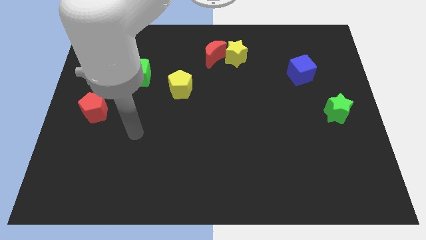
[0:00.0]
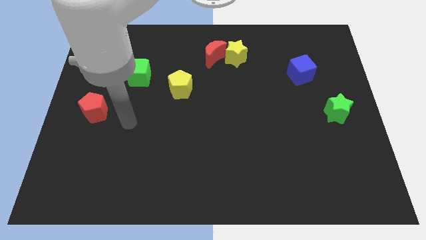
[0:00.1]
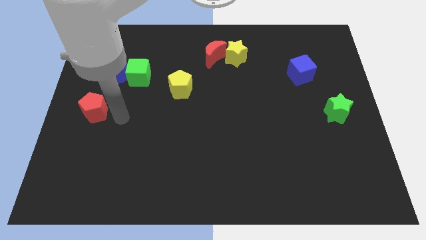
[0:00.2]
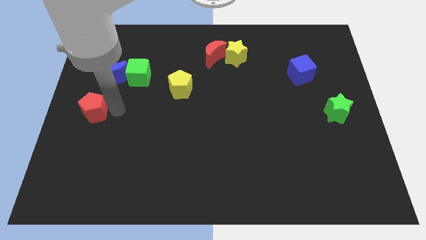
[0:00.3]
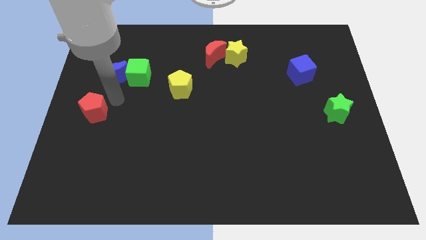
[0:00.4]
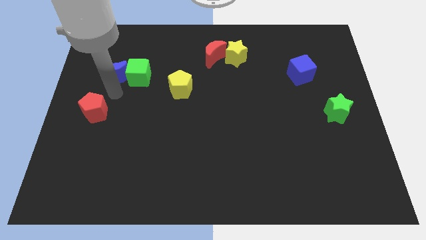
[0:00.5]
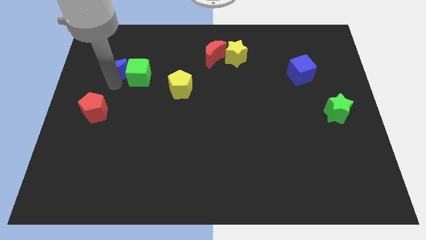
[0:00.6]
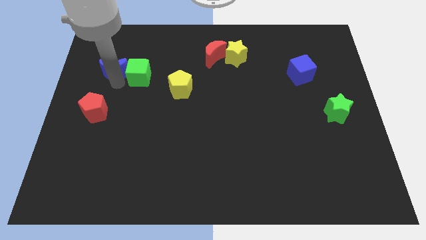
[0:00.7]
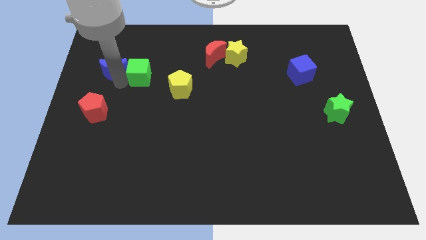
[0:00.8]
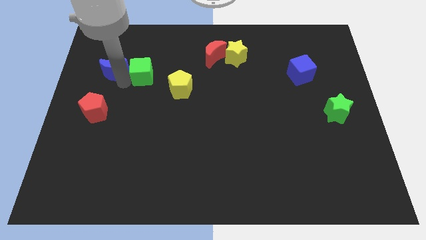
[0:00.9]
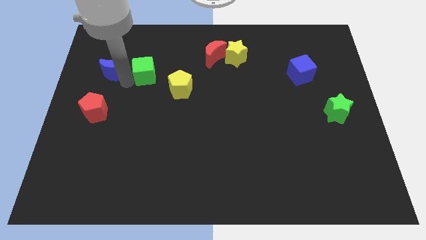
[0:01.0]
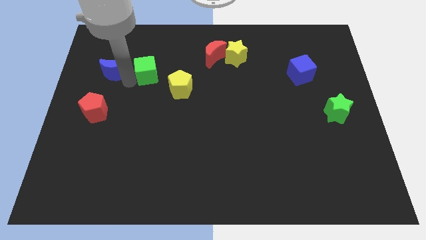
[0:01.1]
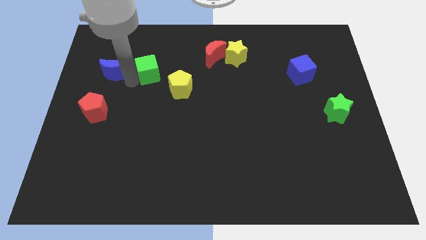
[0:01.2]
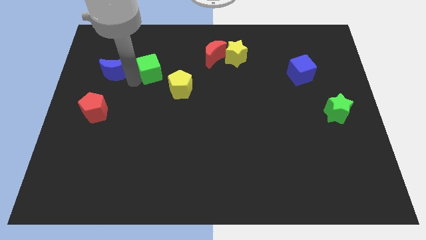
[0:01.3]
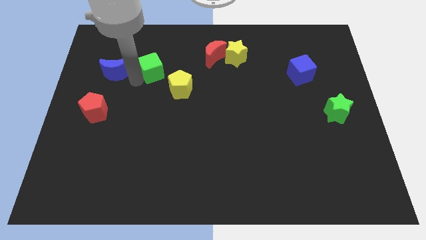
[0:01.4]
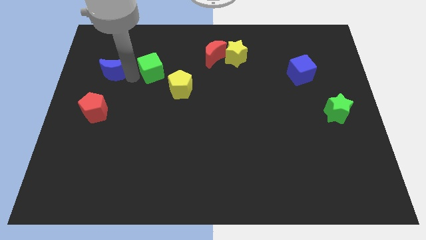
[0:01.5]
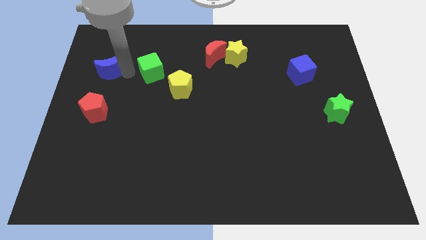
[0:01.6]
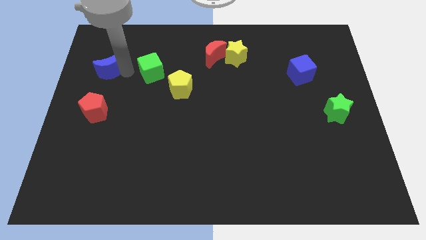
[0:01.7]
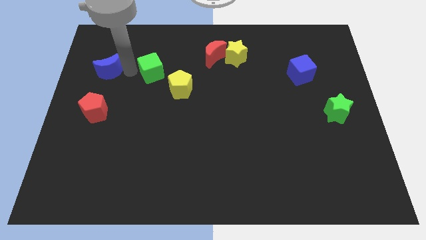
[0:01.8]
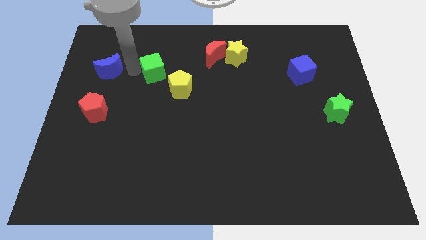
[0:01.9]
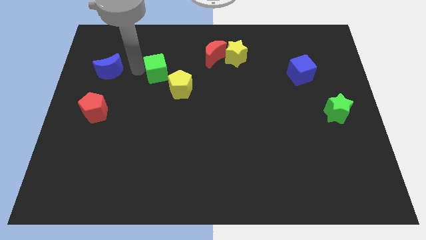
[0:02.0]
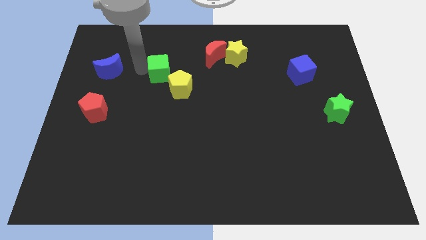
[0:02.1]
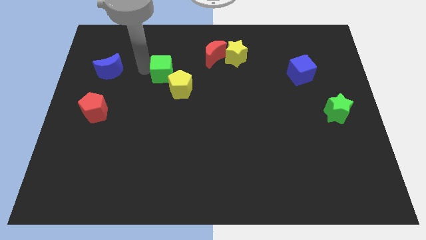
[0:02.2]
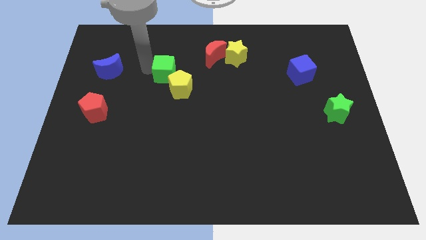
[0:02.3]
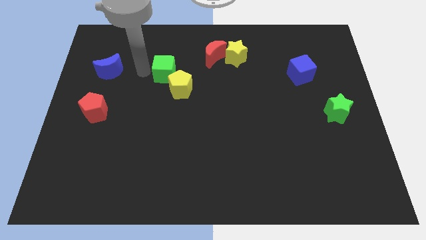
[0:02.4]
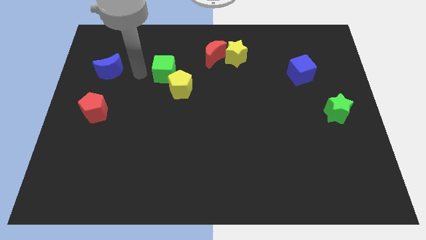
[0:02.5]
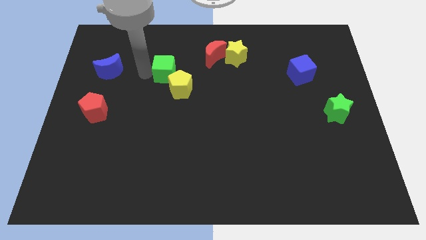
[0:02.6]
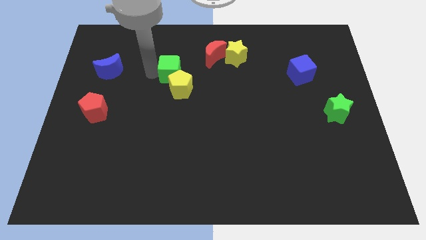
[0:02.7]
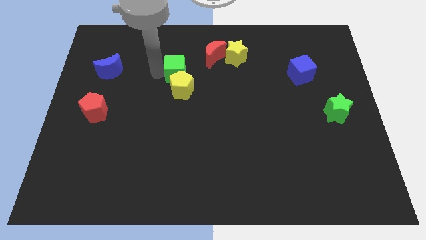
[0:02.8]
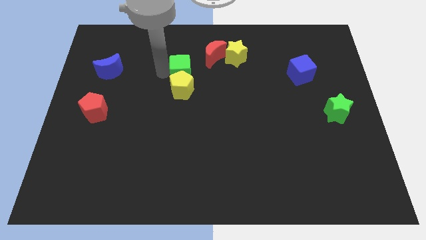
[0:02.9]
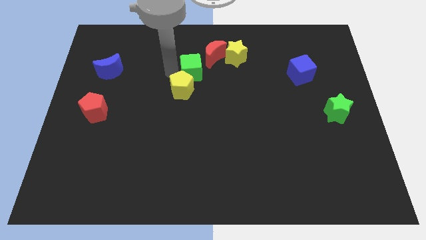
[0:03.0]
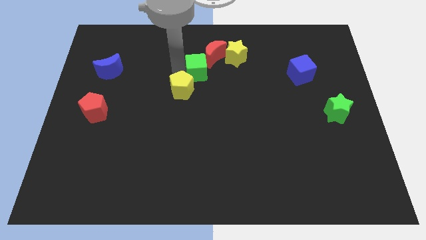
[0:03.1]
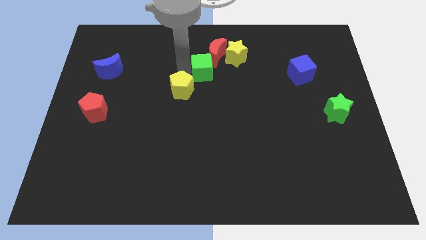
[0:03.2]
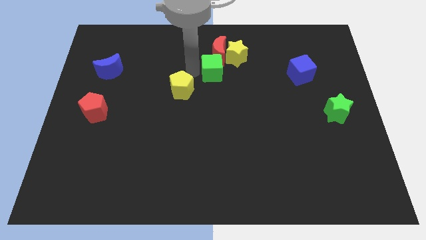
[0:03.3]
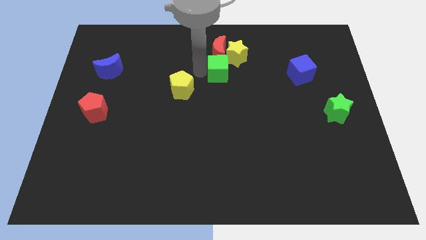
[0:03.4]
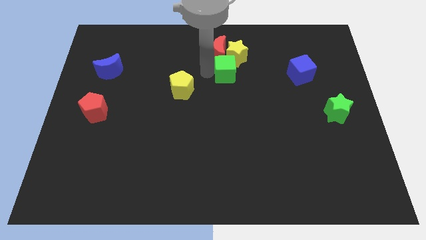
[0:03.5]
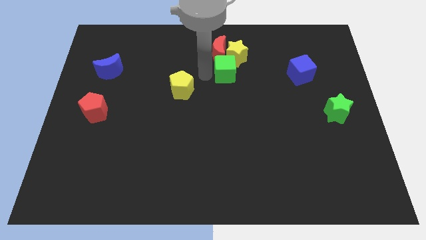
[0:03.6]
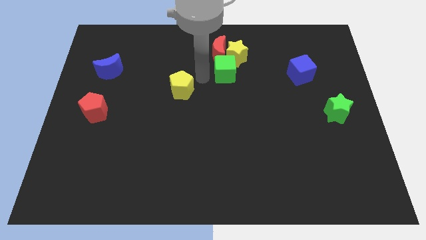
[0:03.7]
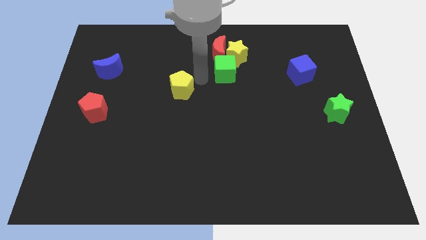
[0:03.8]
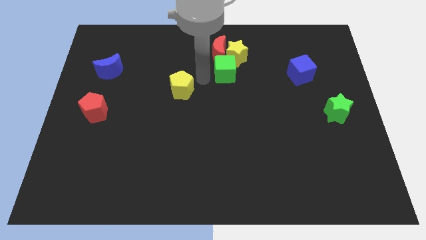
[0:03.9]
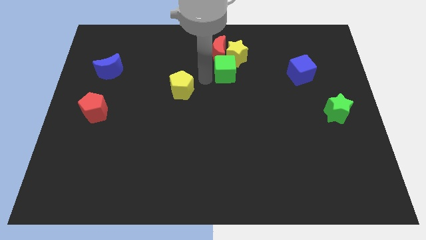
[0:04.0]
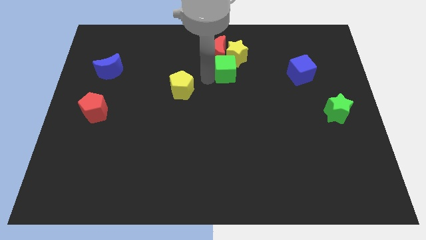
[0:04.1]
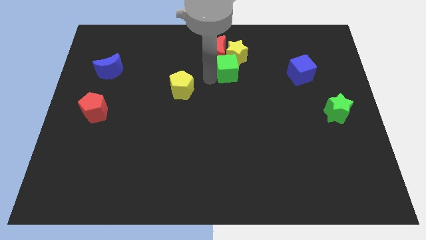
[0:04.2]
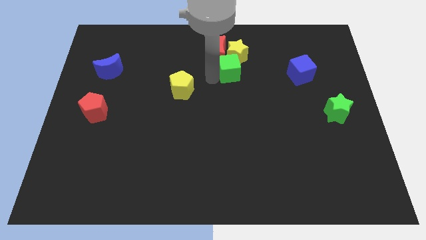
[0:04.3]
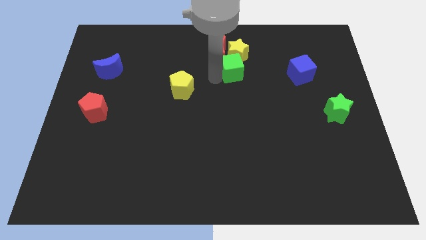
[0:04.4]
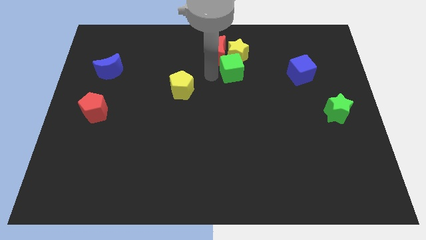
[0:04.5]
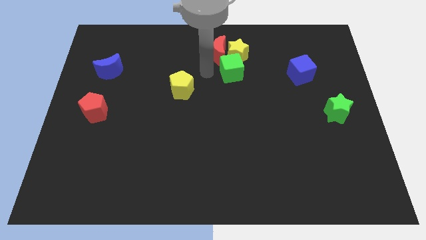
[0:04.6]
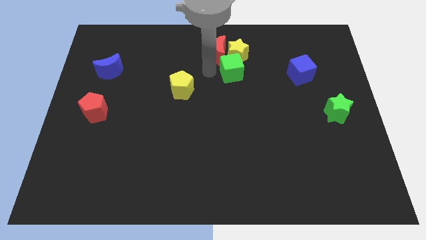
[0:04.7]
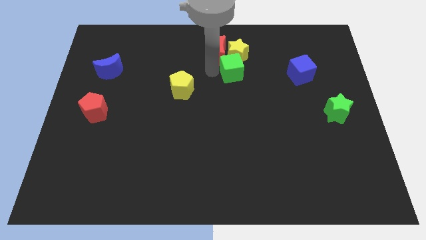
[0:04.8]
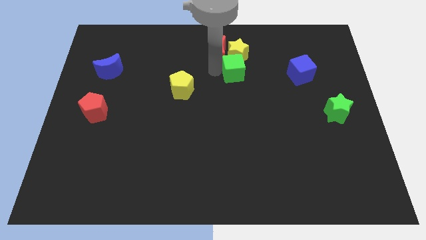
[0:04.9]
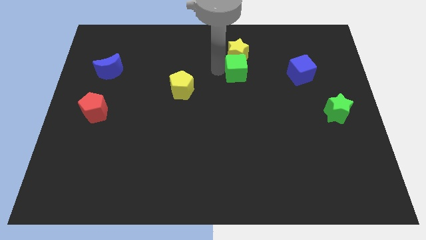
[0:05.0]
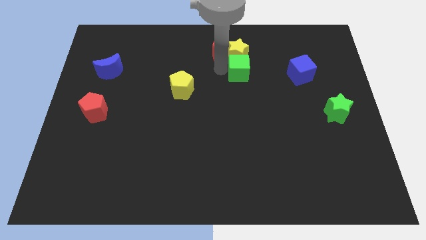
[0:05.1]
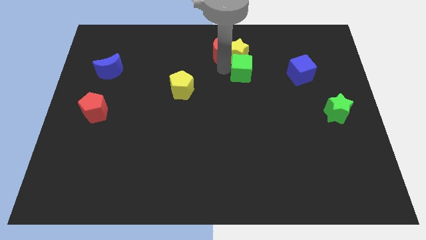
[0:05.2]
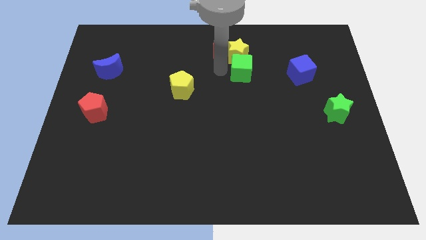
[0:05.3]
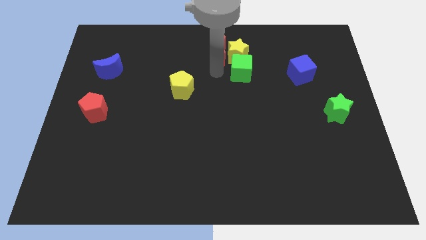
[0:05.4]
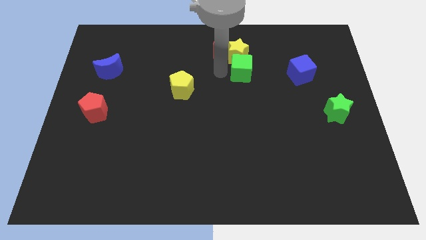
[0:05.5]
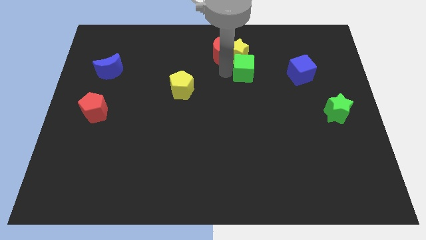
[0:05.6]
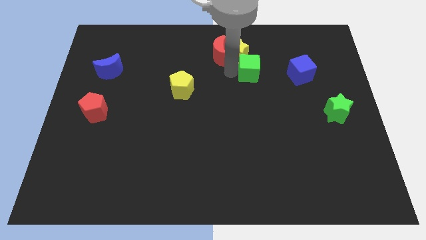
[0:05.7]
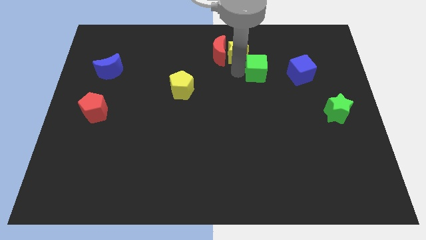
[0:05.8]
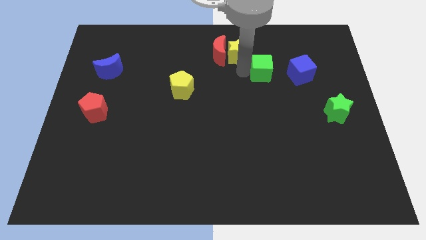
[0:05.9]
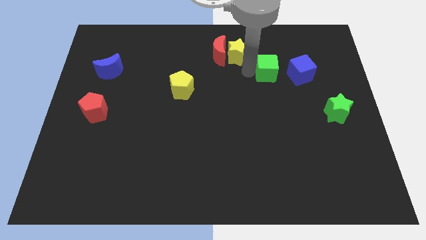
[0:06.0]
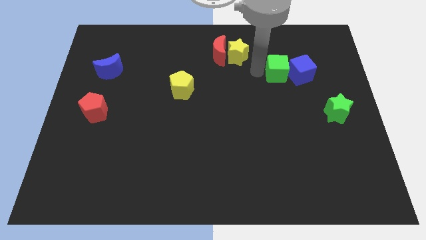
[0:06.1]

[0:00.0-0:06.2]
move the green cube towards the blue cube
